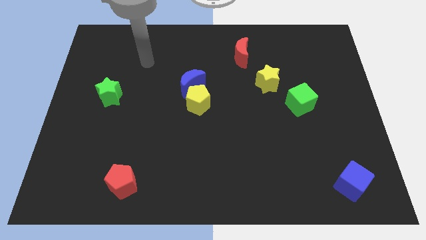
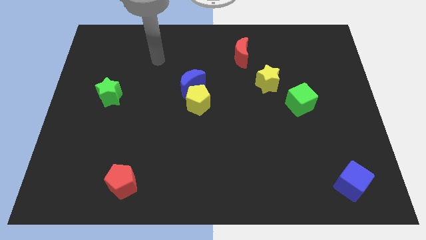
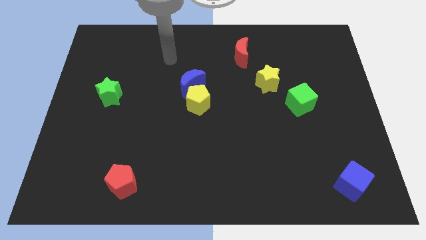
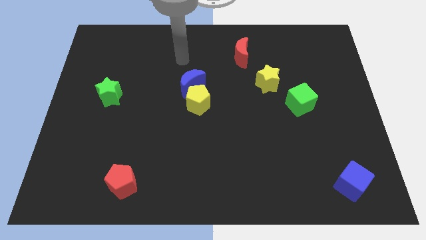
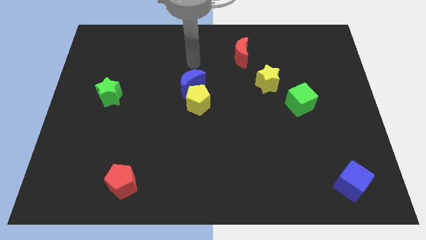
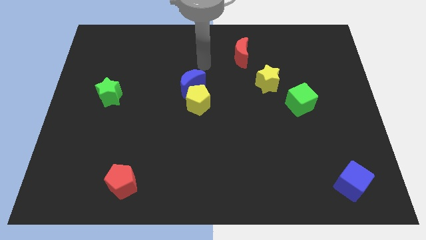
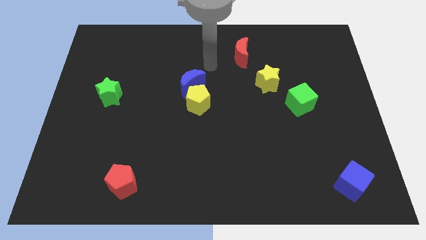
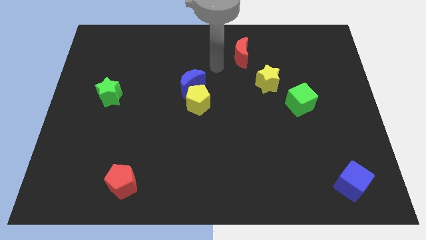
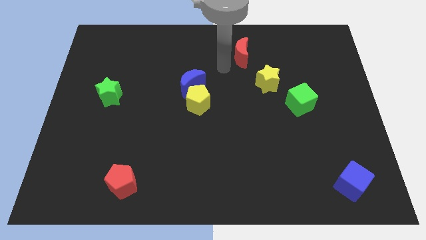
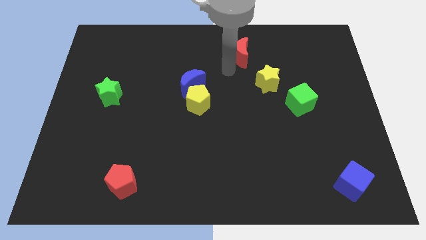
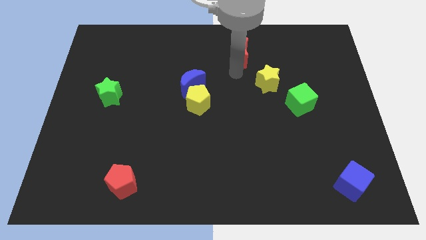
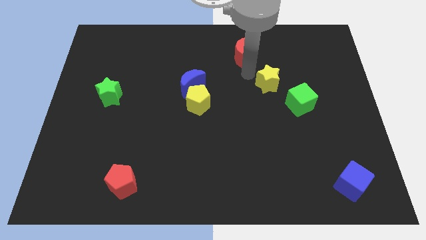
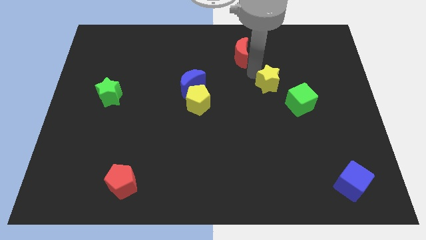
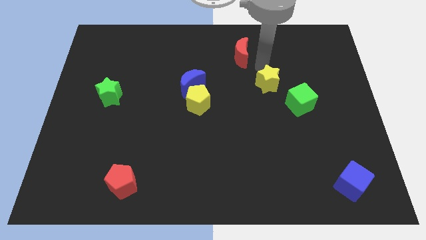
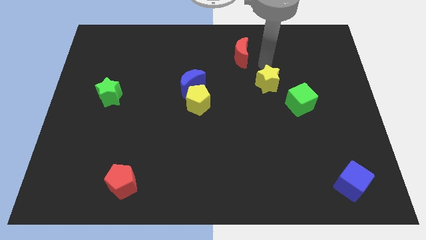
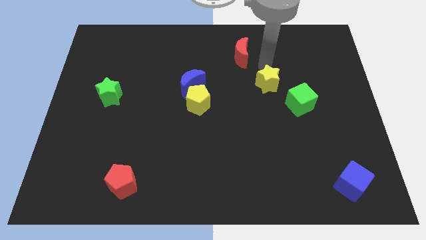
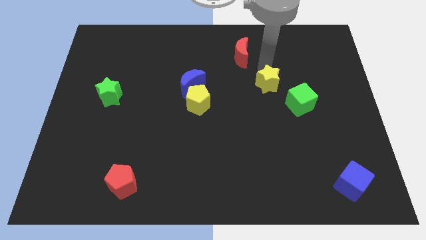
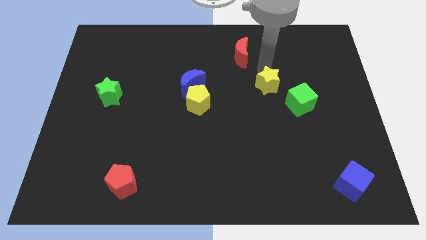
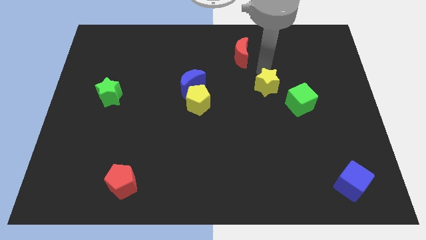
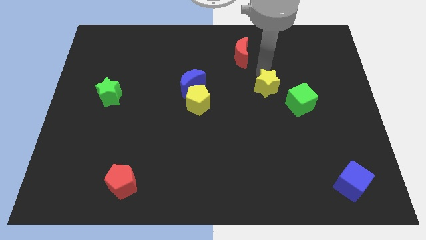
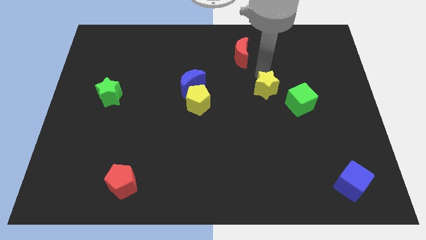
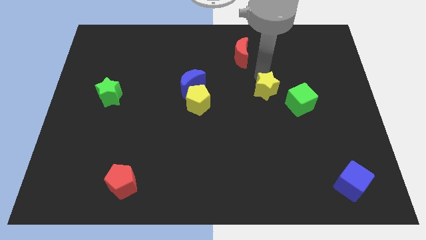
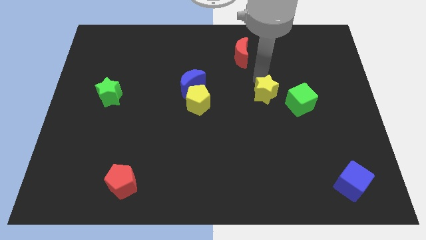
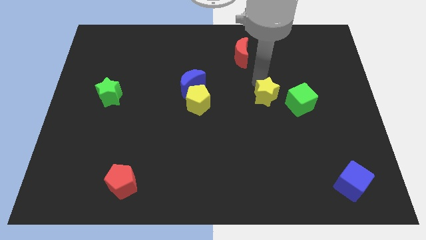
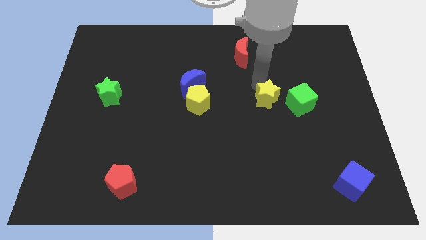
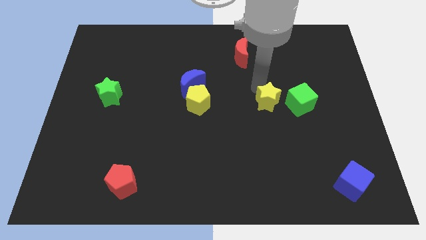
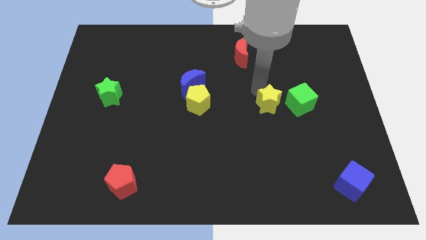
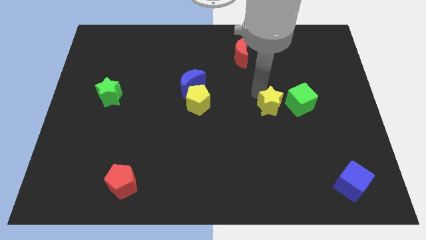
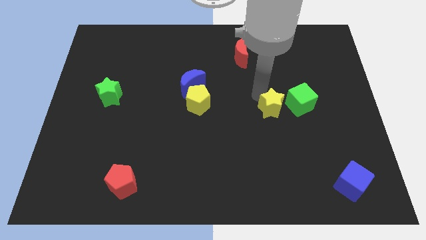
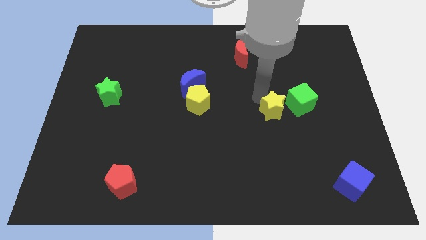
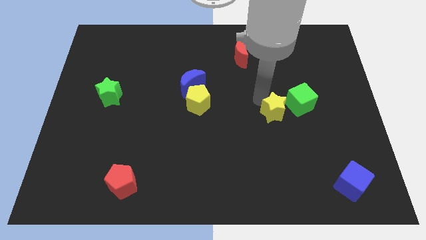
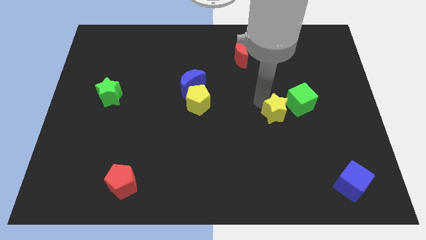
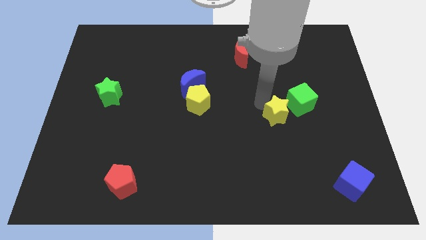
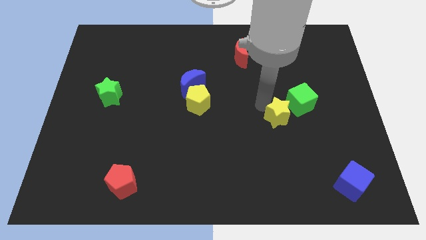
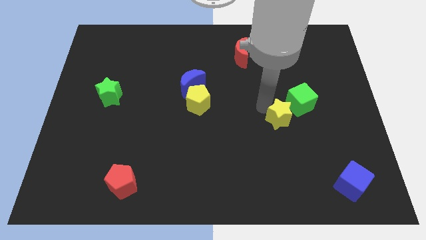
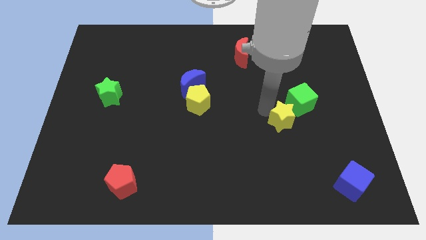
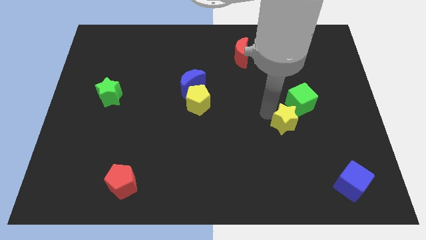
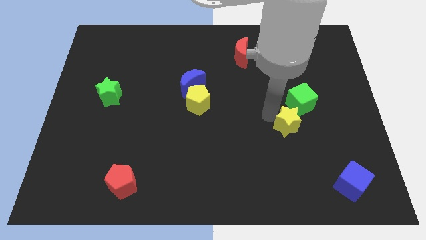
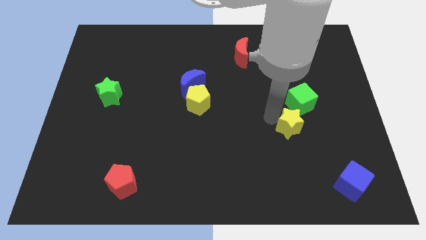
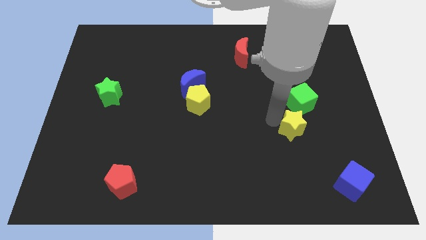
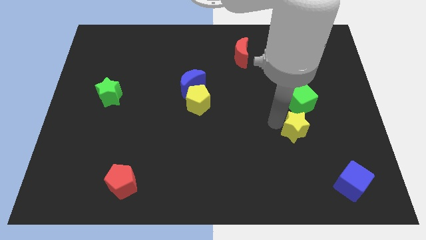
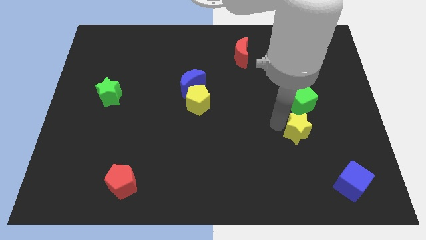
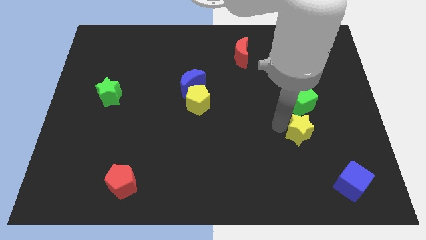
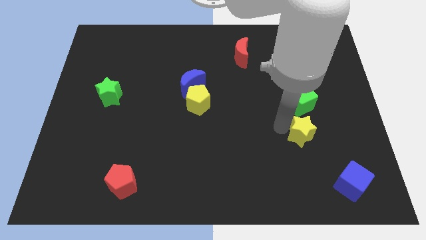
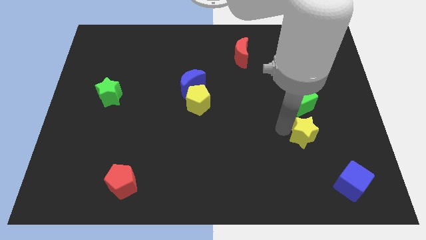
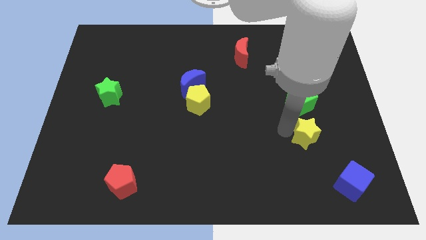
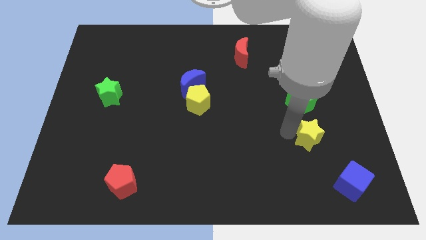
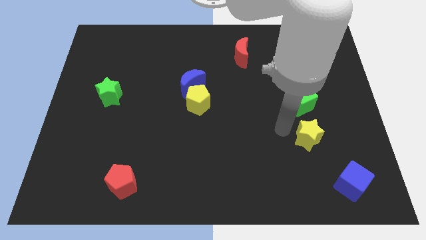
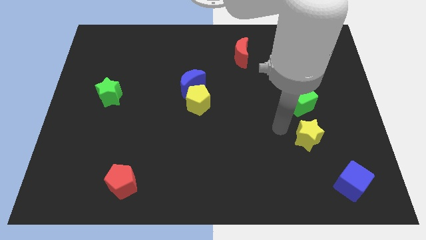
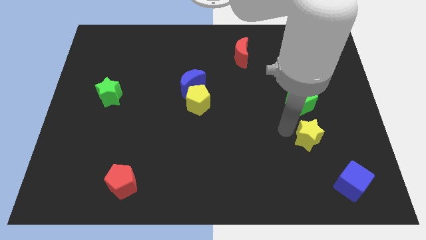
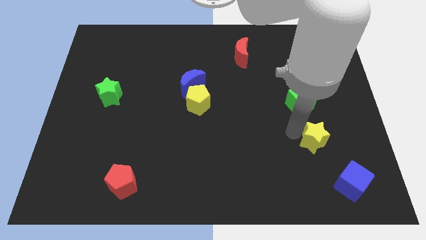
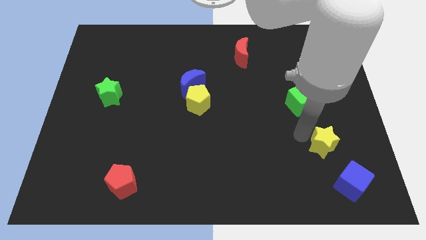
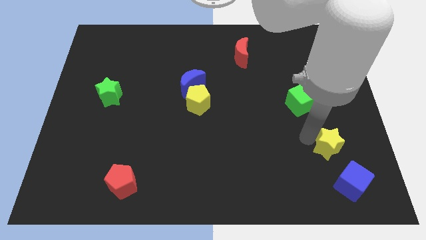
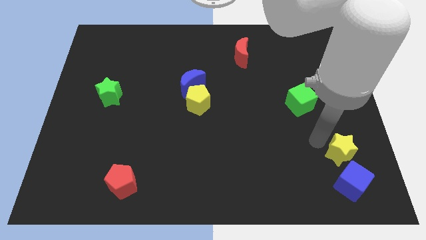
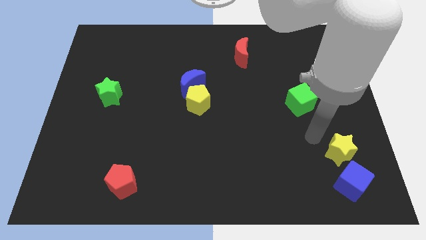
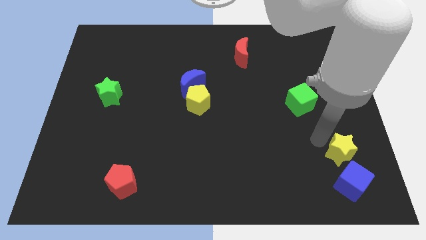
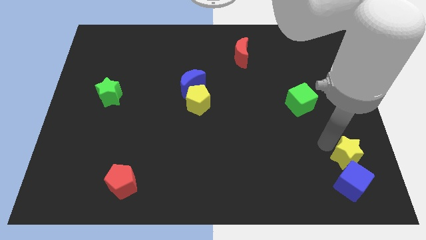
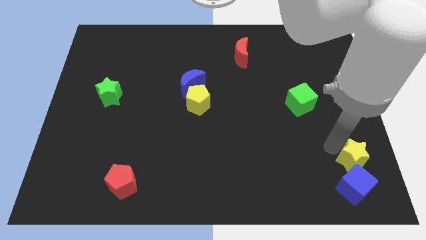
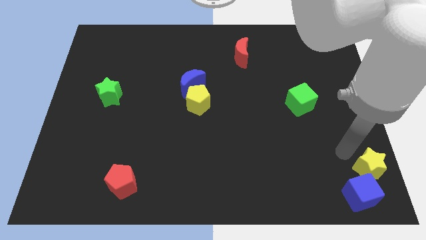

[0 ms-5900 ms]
put the yellow star to the bottom right

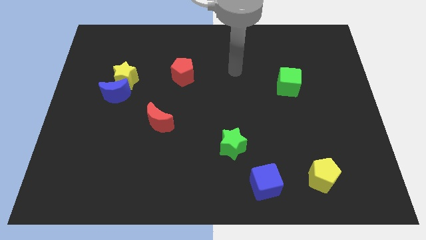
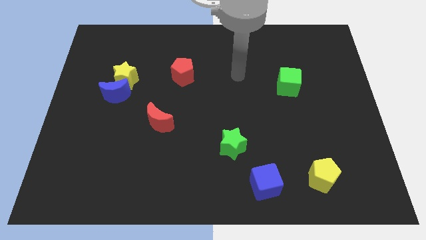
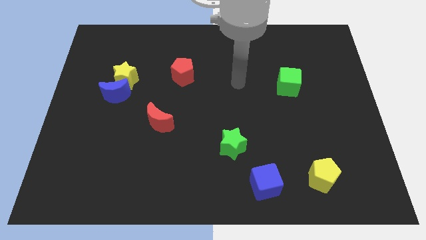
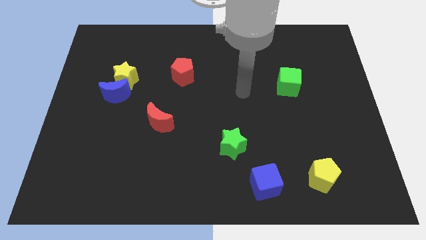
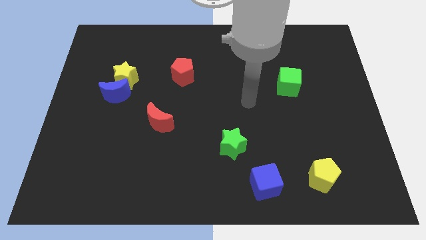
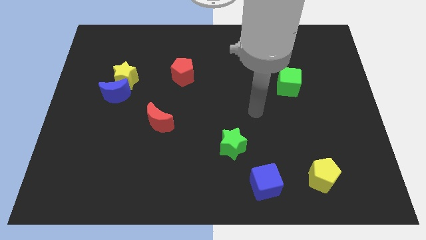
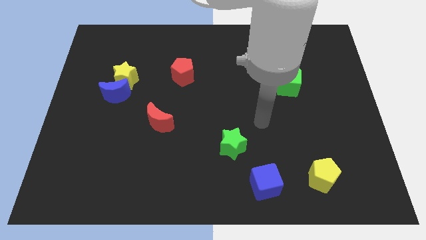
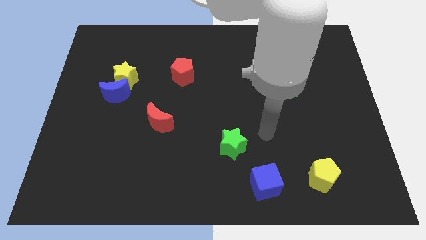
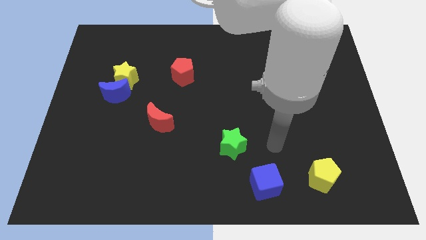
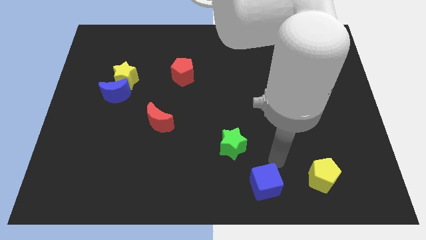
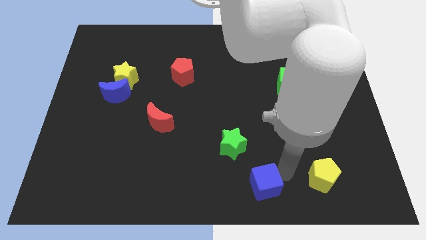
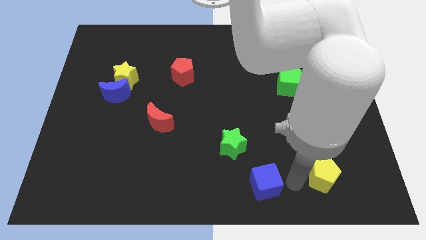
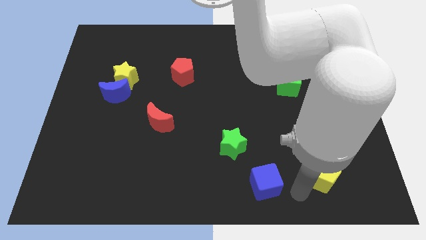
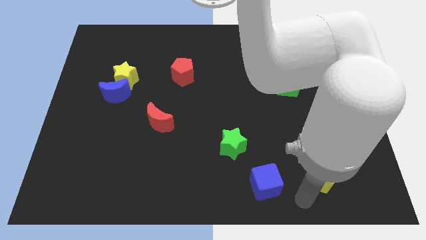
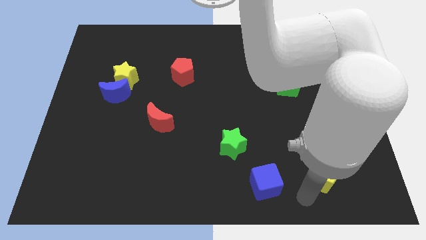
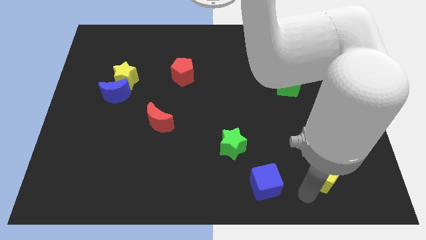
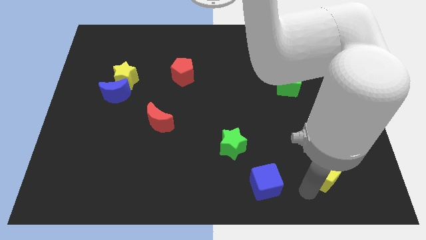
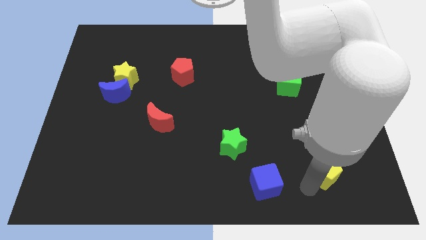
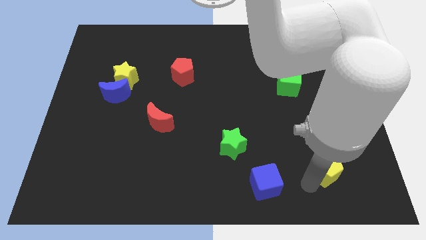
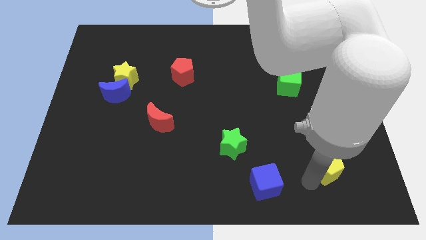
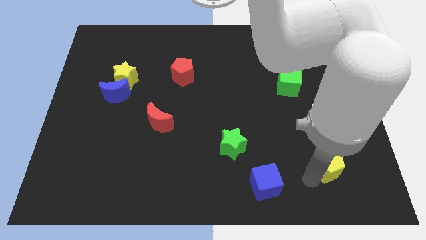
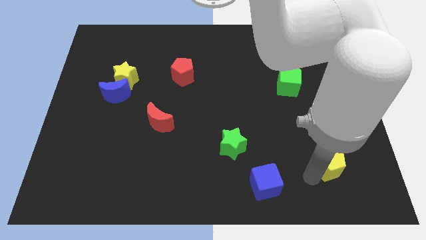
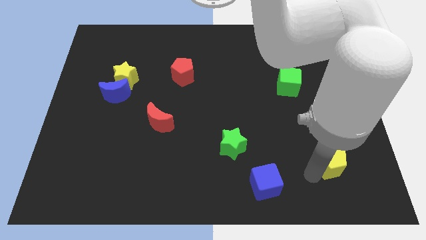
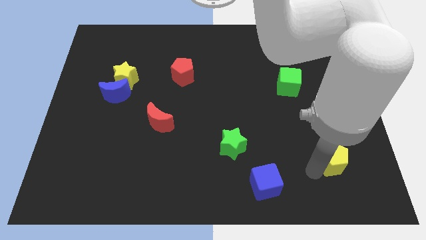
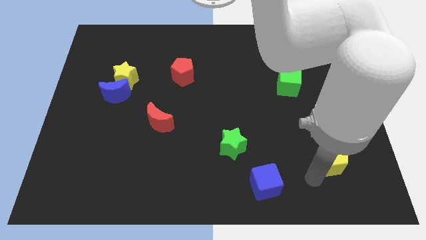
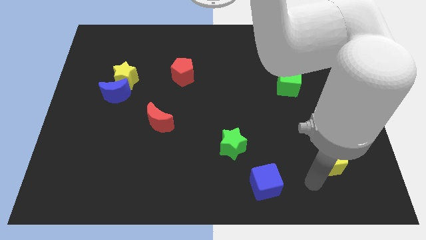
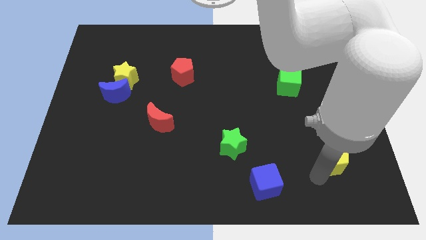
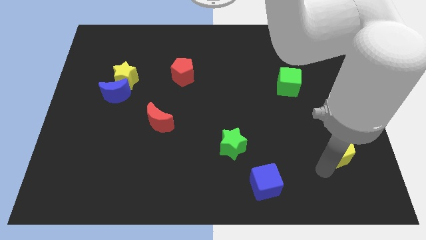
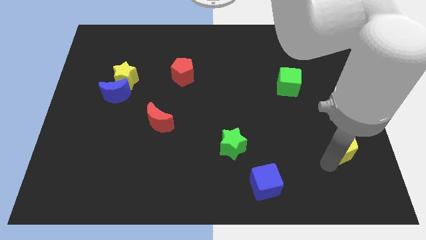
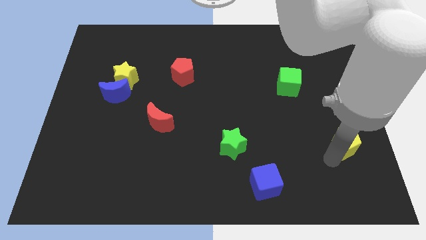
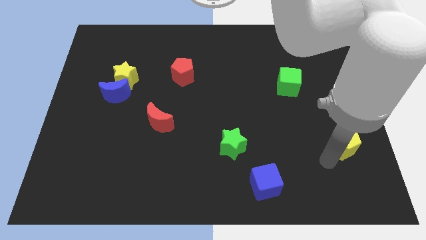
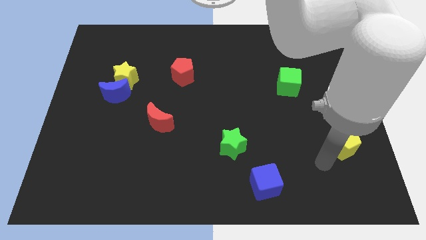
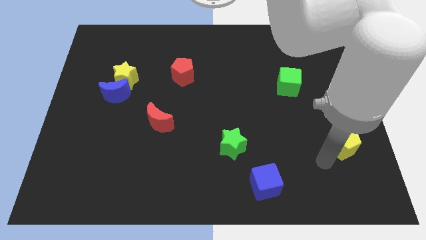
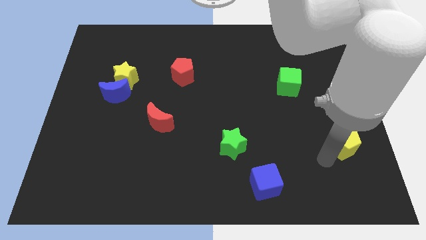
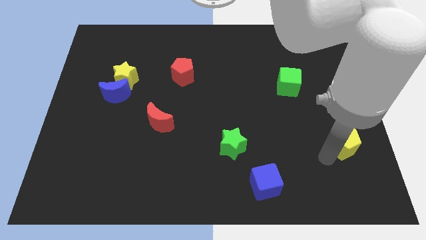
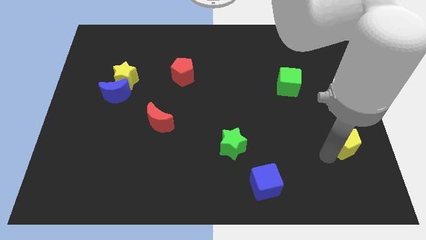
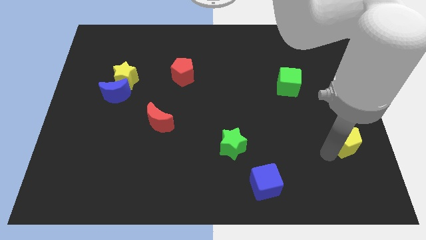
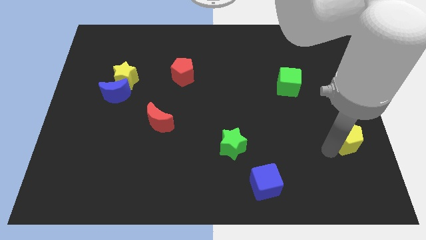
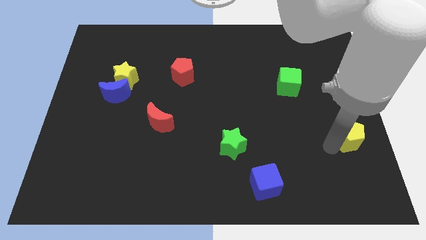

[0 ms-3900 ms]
put the yellow pentagon to the right side of the board
